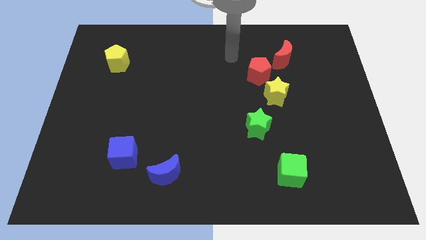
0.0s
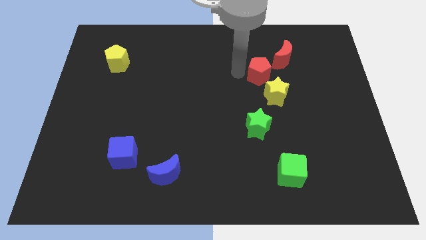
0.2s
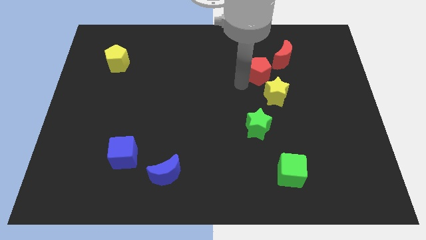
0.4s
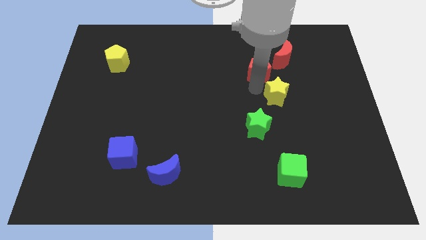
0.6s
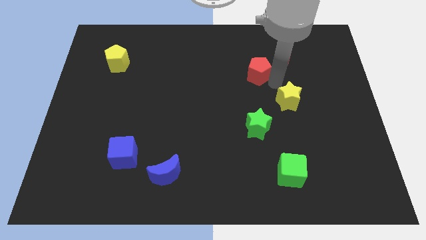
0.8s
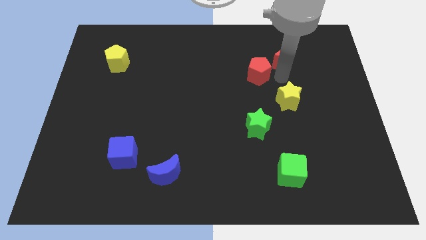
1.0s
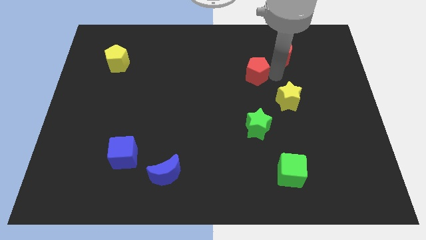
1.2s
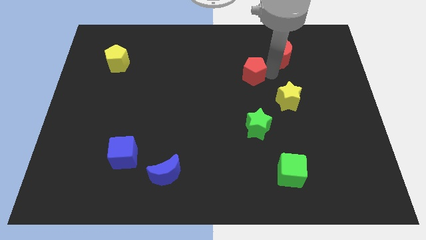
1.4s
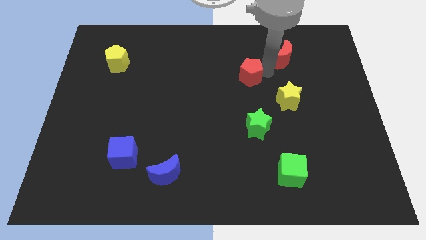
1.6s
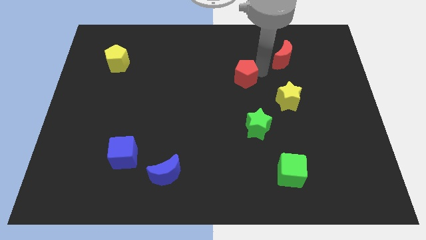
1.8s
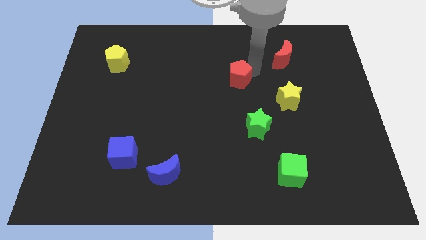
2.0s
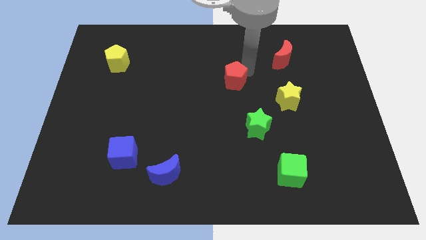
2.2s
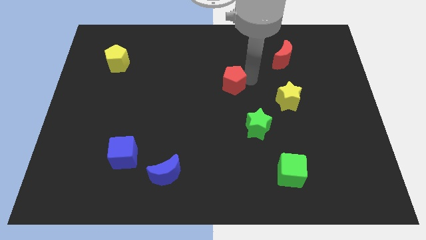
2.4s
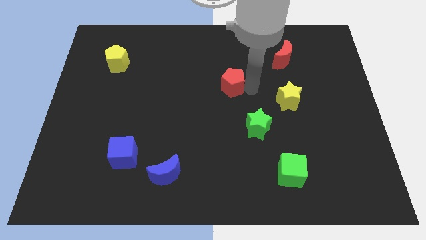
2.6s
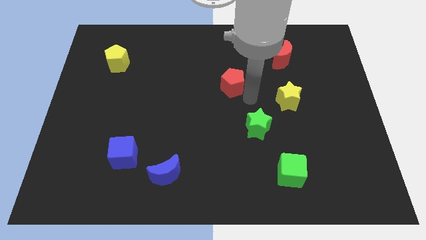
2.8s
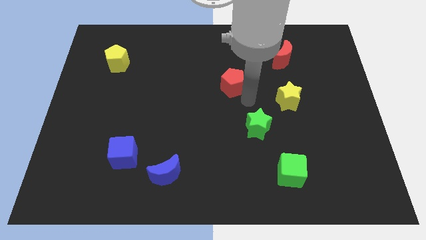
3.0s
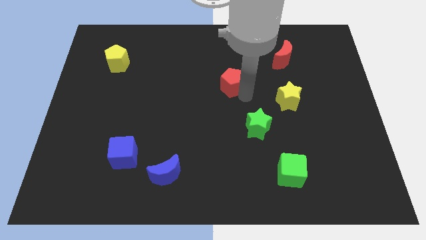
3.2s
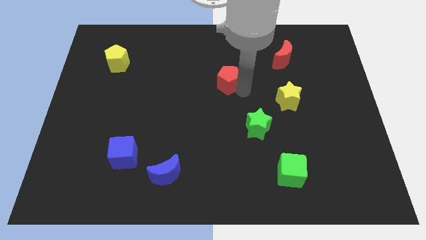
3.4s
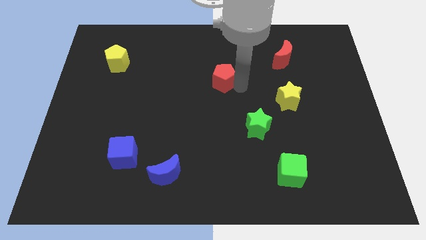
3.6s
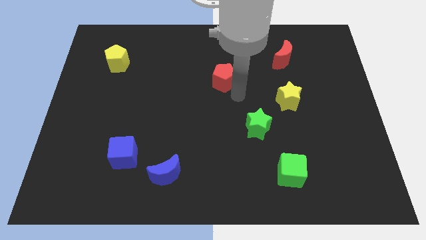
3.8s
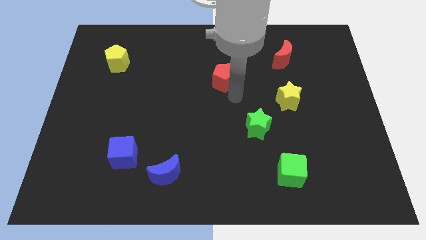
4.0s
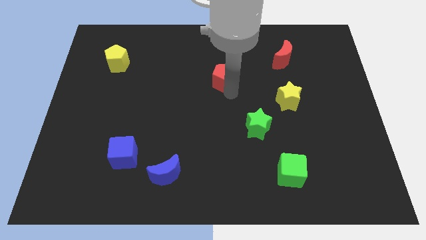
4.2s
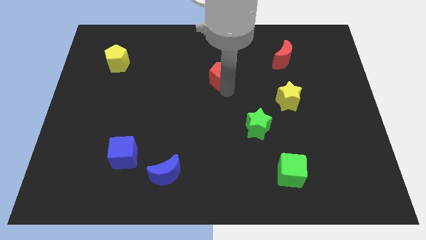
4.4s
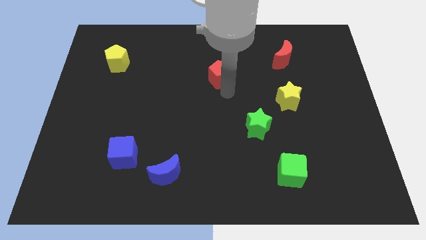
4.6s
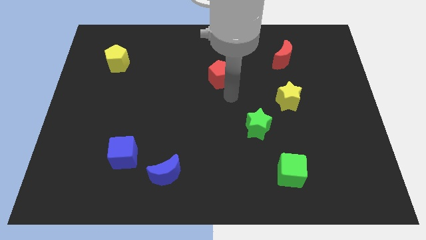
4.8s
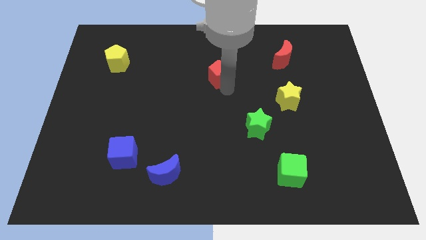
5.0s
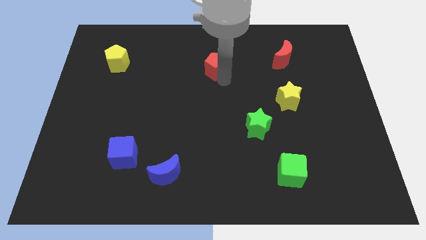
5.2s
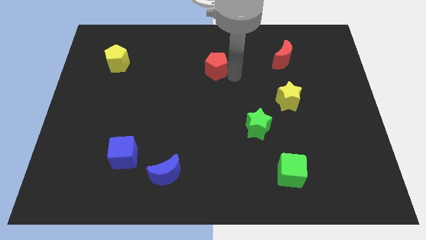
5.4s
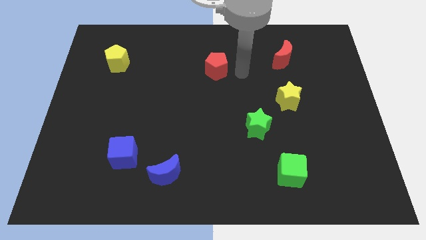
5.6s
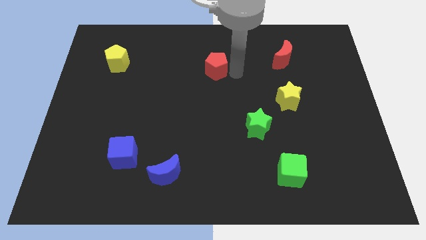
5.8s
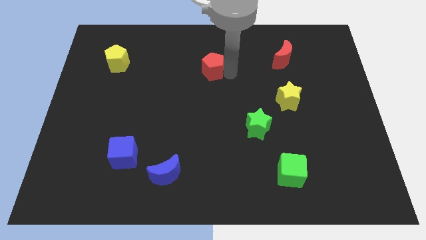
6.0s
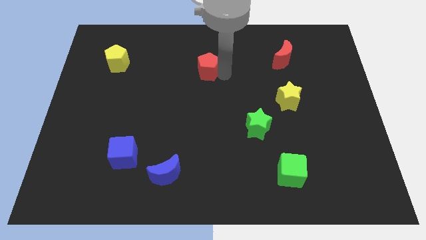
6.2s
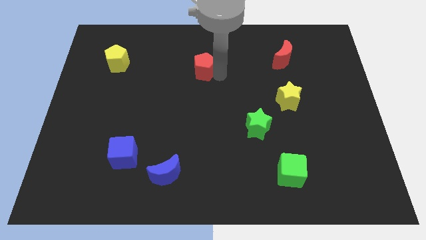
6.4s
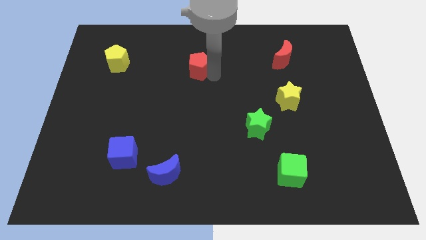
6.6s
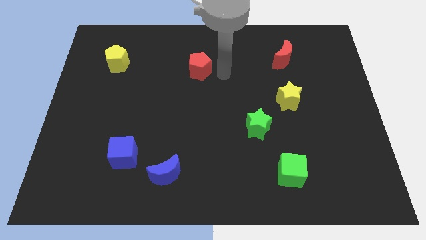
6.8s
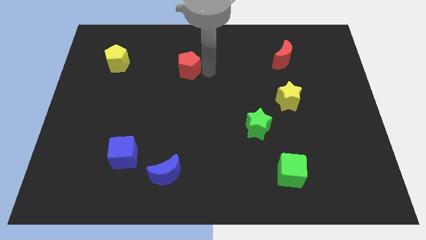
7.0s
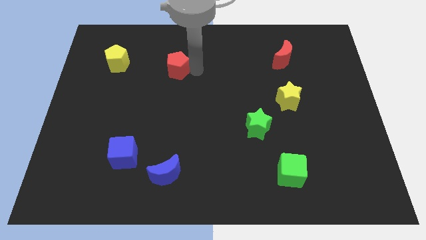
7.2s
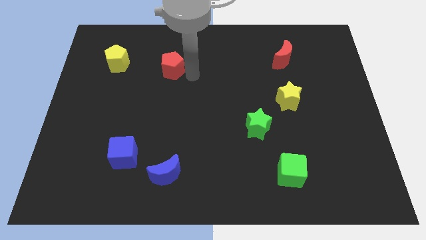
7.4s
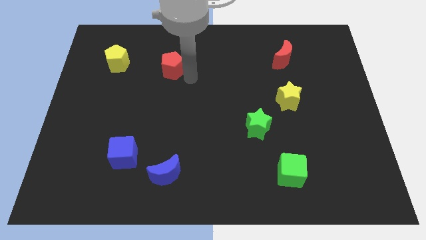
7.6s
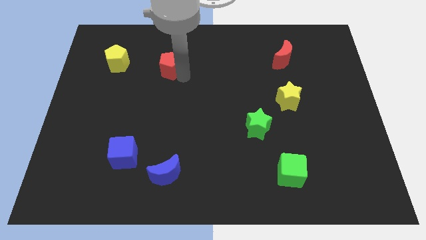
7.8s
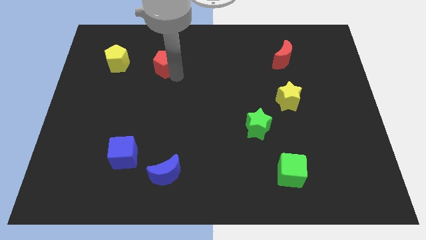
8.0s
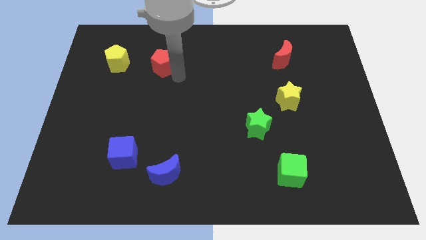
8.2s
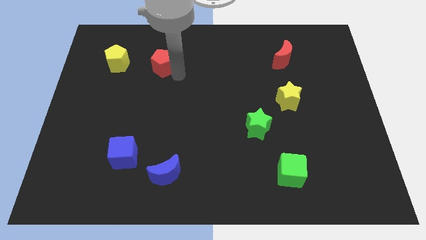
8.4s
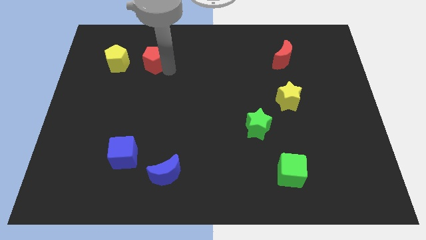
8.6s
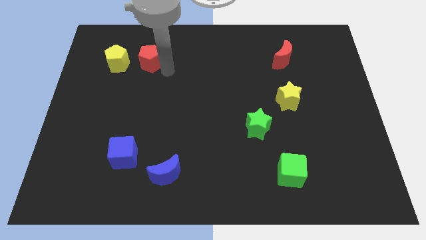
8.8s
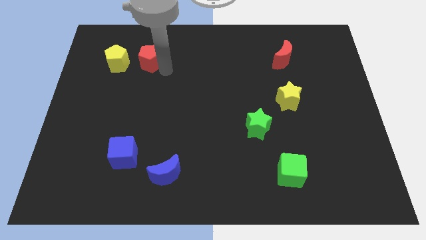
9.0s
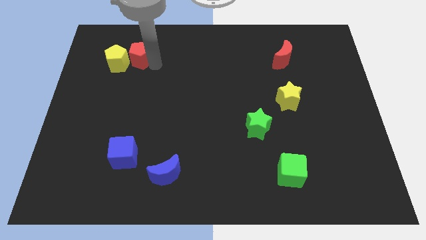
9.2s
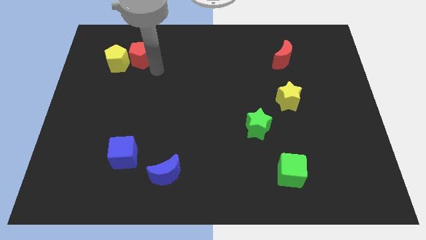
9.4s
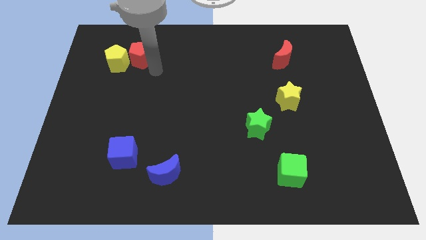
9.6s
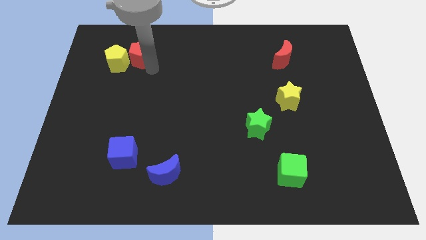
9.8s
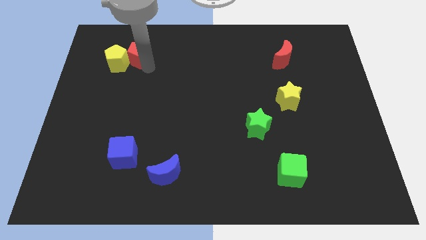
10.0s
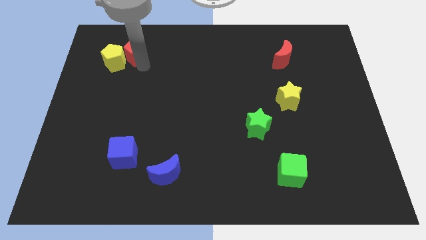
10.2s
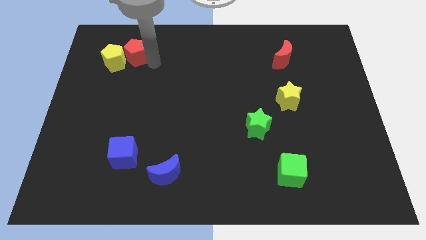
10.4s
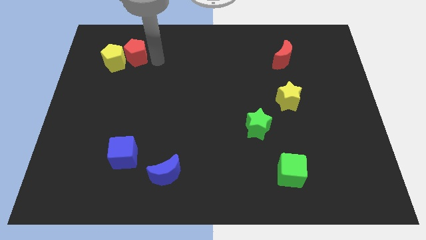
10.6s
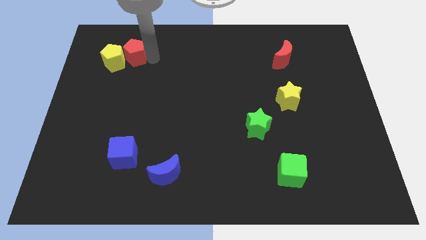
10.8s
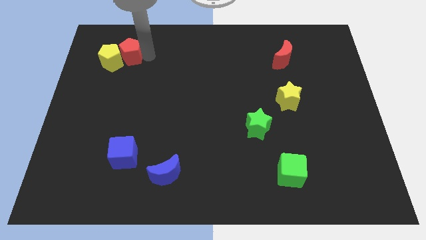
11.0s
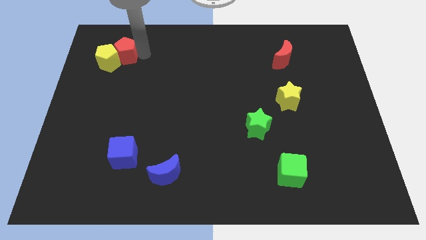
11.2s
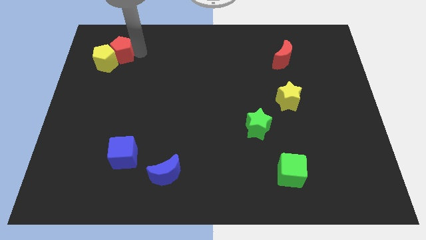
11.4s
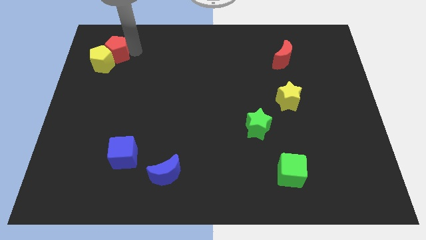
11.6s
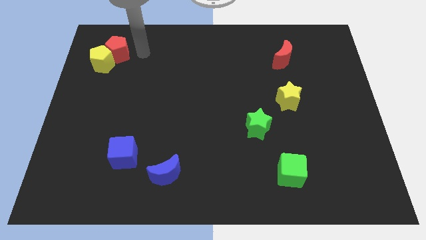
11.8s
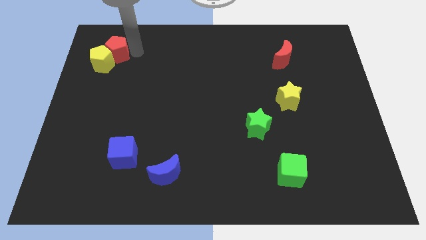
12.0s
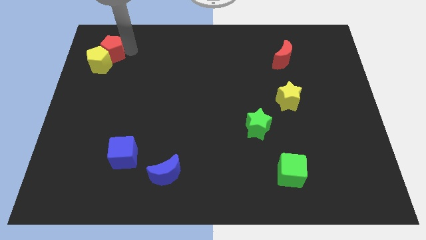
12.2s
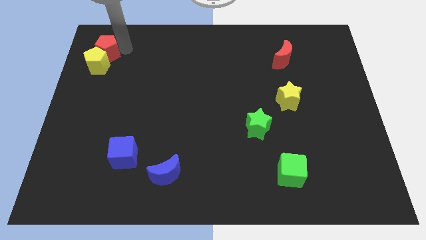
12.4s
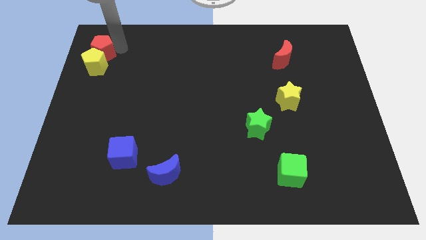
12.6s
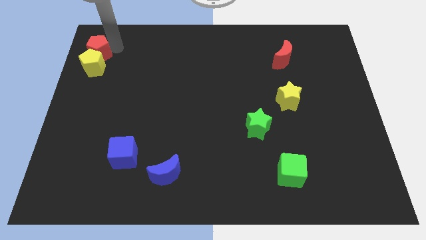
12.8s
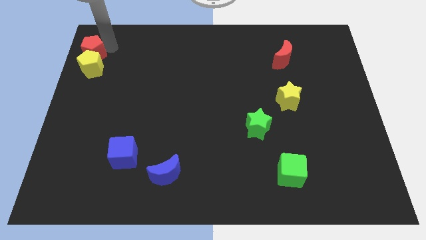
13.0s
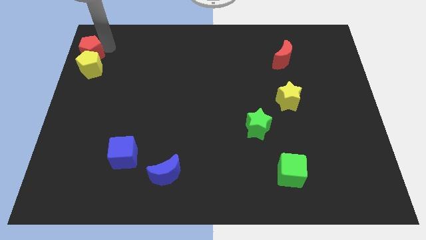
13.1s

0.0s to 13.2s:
push the red pentagon to the top left corner
